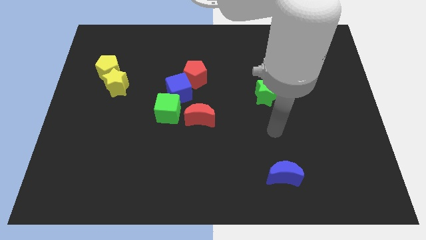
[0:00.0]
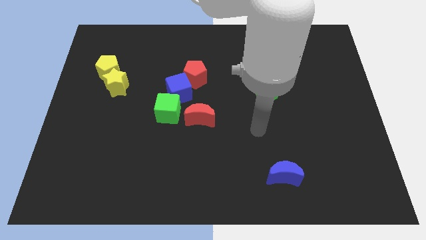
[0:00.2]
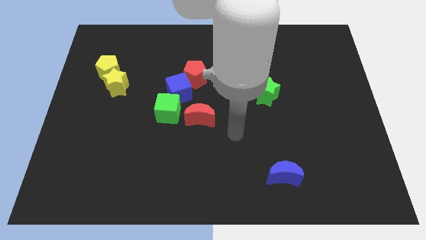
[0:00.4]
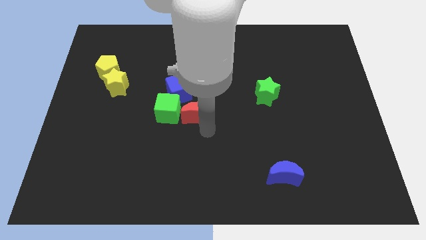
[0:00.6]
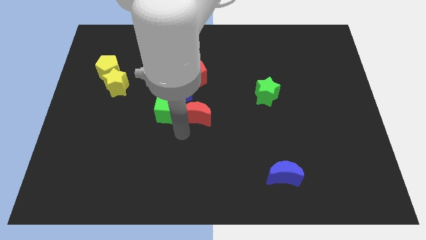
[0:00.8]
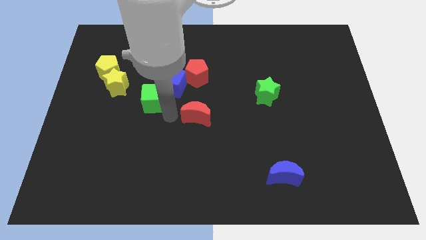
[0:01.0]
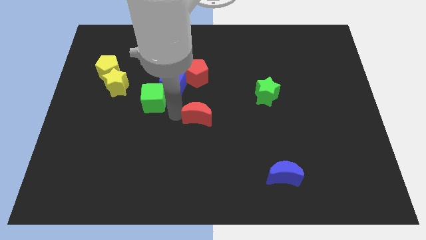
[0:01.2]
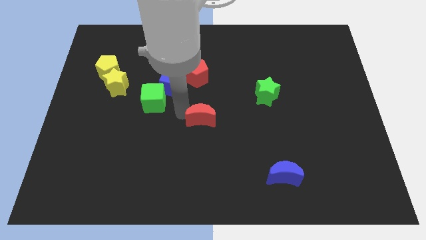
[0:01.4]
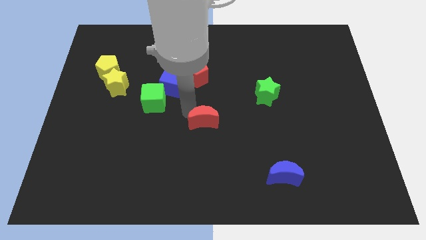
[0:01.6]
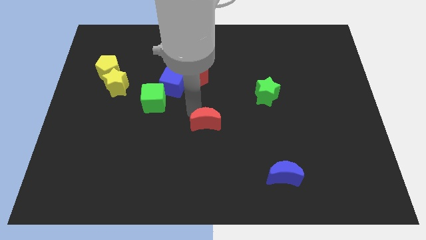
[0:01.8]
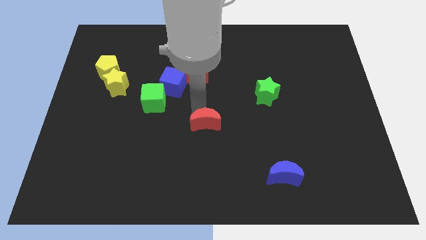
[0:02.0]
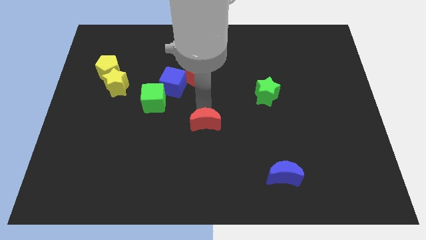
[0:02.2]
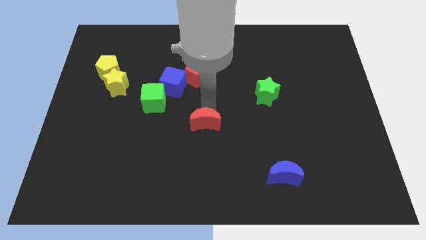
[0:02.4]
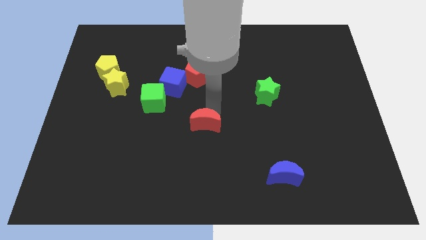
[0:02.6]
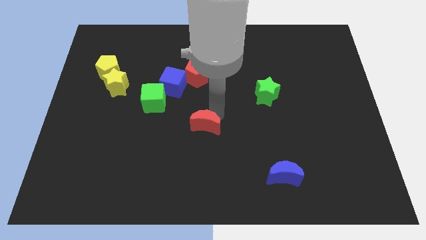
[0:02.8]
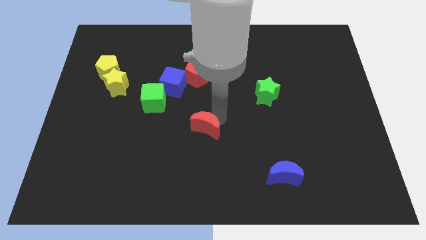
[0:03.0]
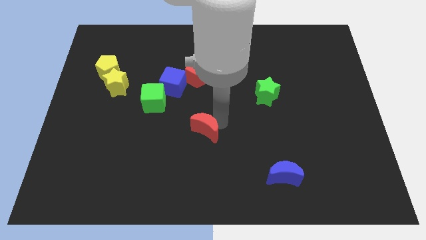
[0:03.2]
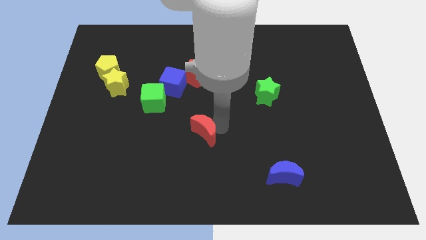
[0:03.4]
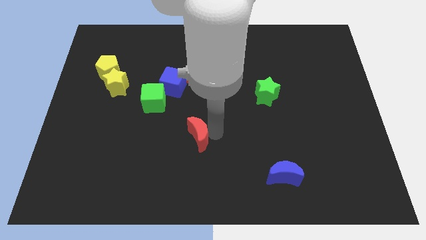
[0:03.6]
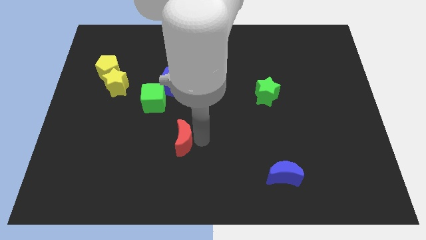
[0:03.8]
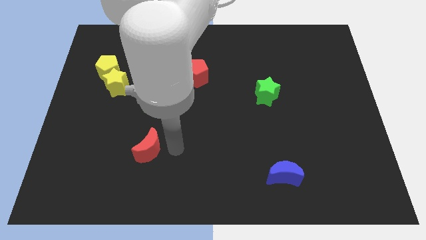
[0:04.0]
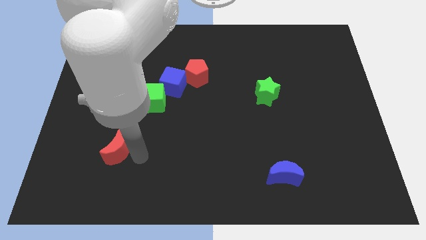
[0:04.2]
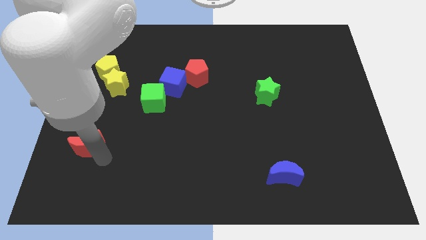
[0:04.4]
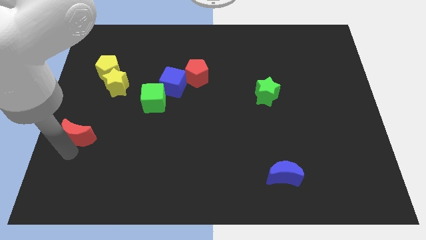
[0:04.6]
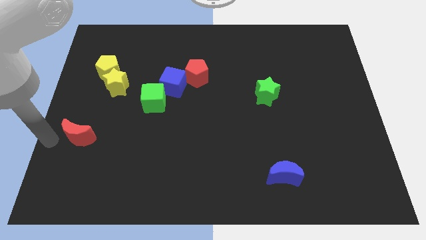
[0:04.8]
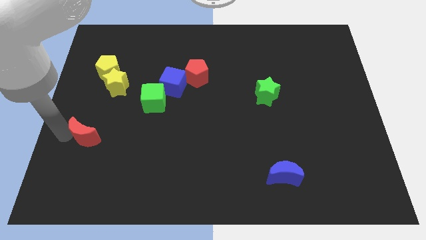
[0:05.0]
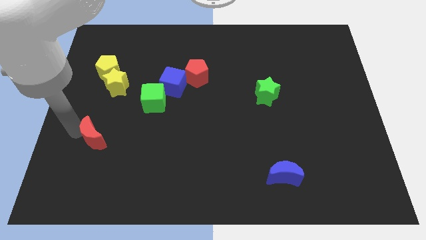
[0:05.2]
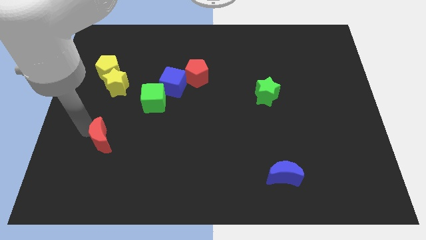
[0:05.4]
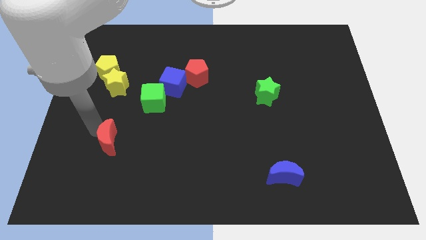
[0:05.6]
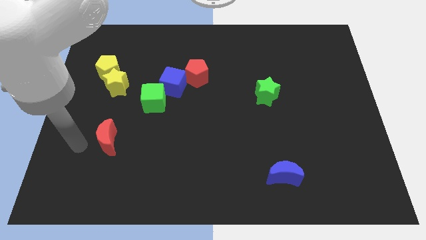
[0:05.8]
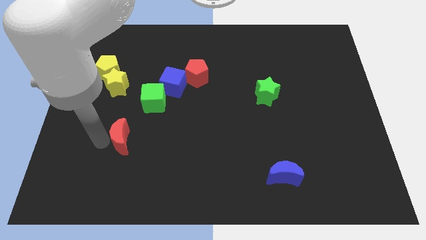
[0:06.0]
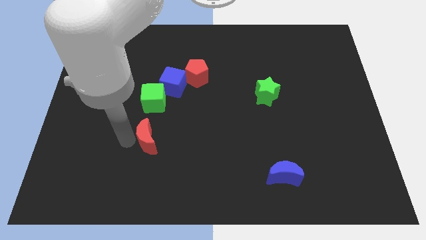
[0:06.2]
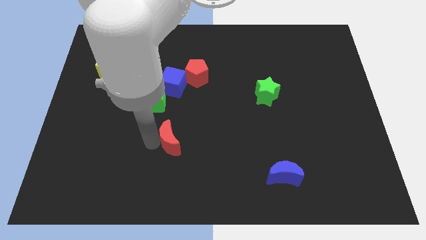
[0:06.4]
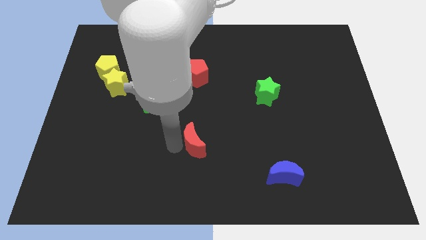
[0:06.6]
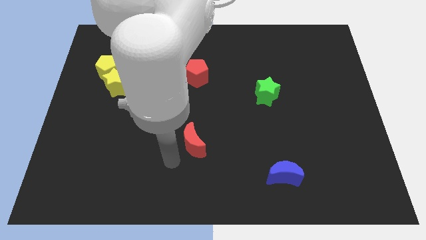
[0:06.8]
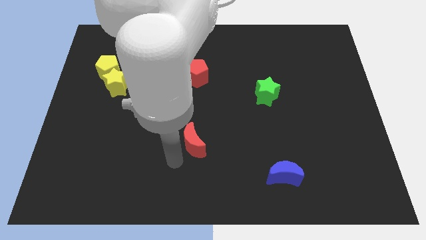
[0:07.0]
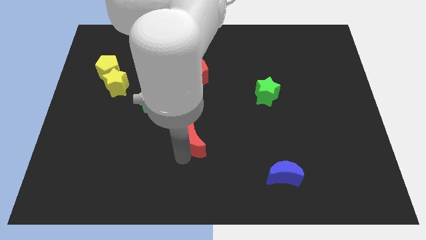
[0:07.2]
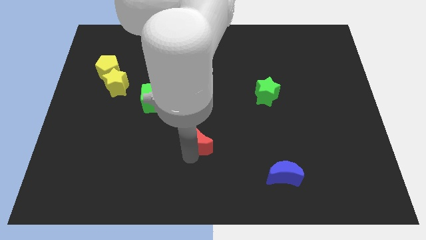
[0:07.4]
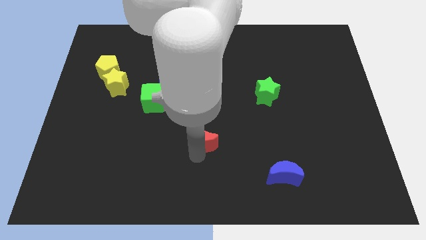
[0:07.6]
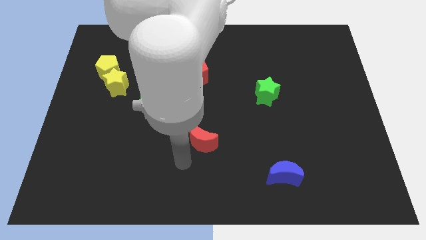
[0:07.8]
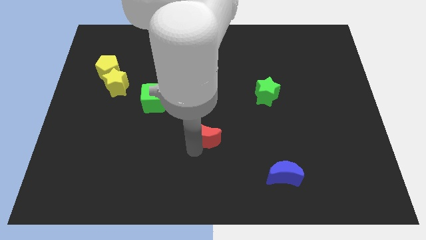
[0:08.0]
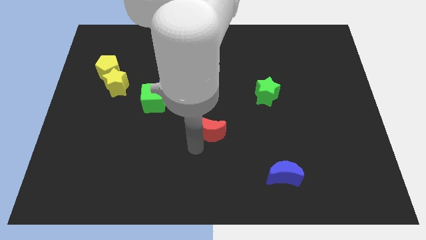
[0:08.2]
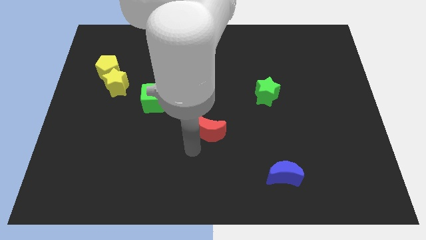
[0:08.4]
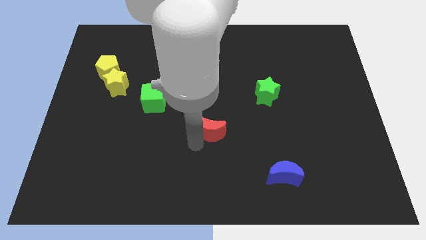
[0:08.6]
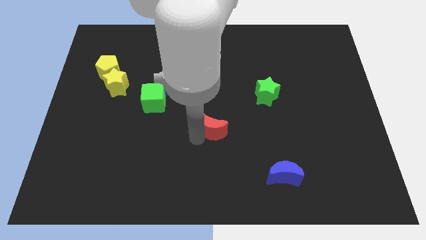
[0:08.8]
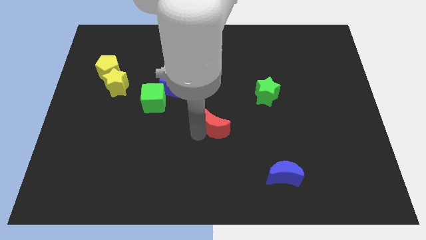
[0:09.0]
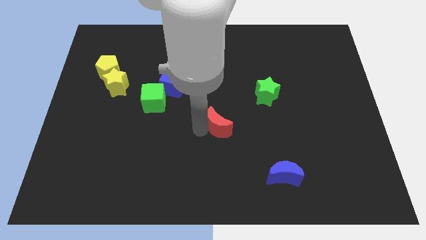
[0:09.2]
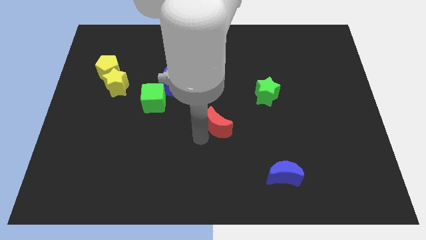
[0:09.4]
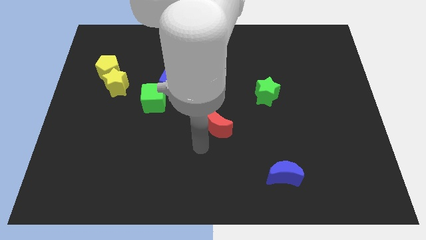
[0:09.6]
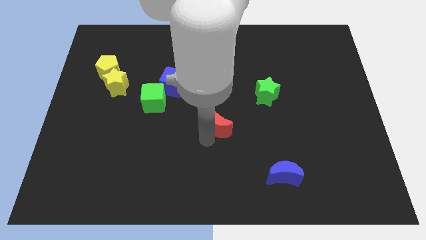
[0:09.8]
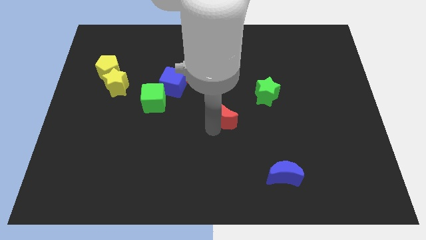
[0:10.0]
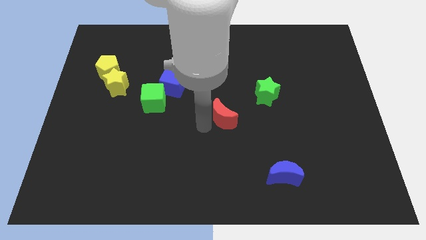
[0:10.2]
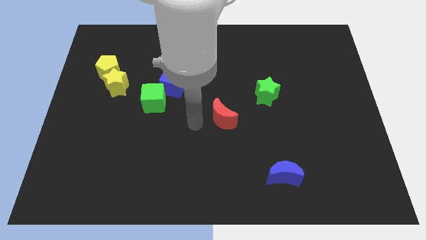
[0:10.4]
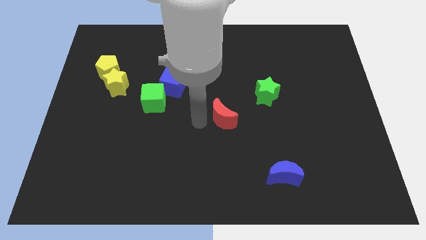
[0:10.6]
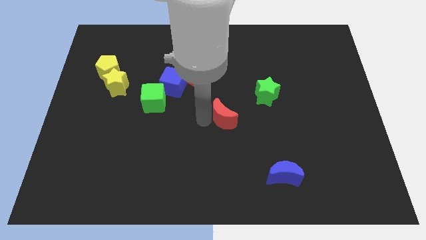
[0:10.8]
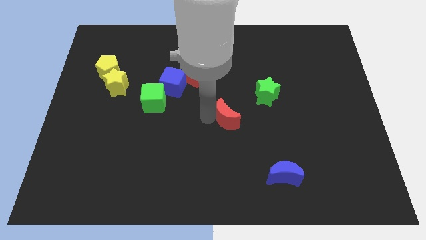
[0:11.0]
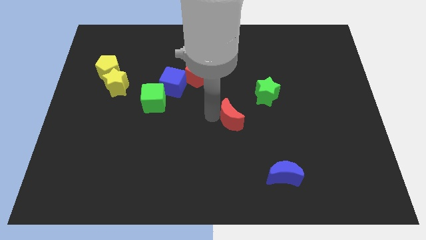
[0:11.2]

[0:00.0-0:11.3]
slightly slide the red moon to the right

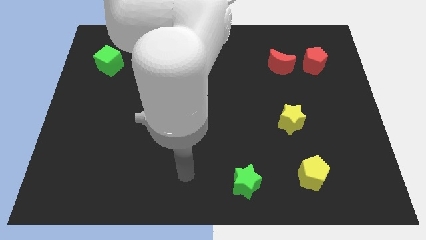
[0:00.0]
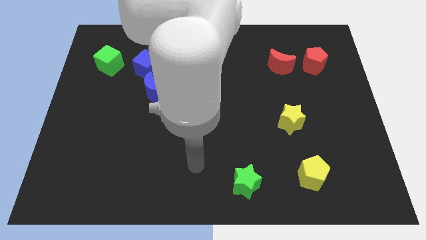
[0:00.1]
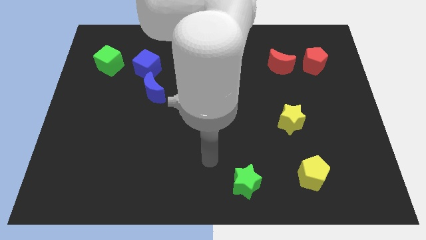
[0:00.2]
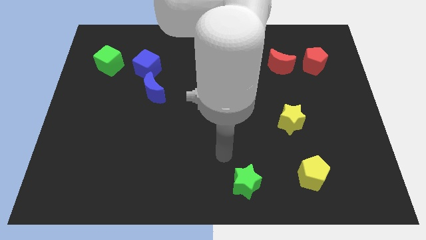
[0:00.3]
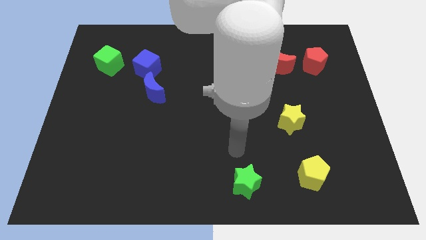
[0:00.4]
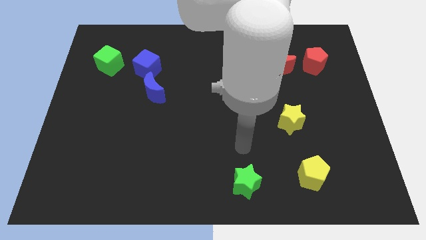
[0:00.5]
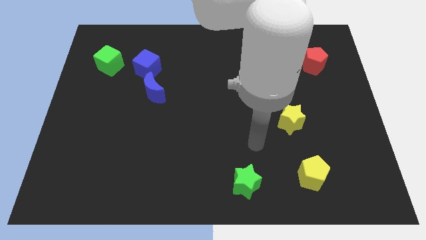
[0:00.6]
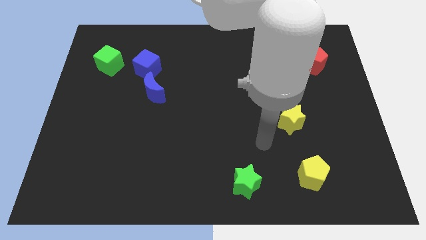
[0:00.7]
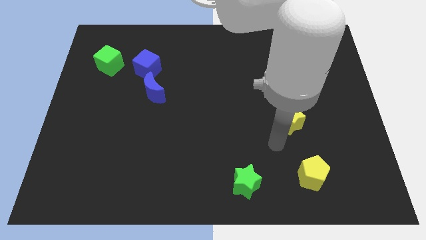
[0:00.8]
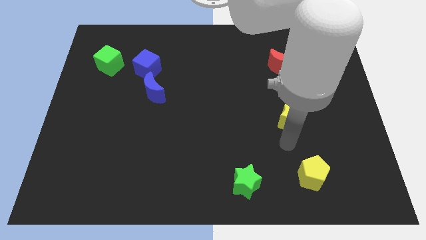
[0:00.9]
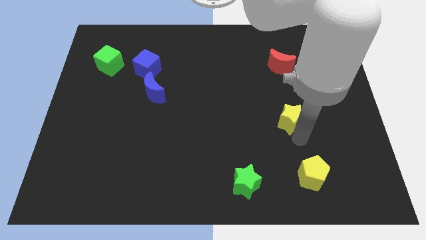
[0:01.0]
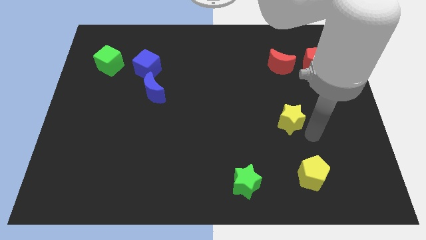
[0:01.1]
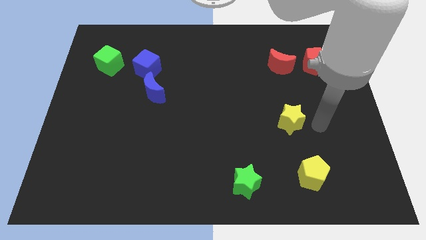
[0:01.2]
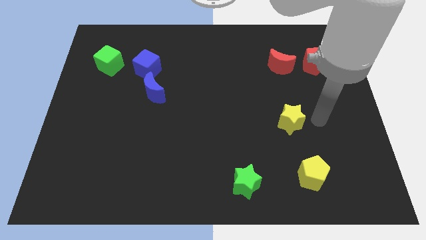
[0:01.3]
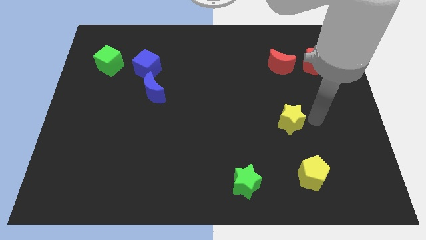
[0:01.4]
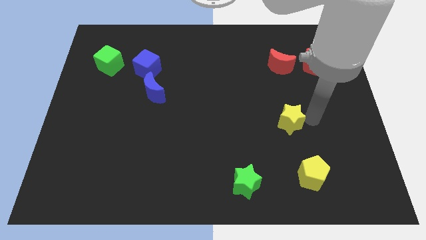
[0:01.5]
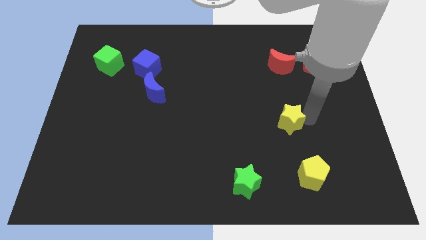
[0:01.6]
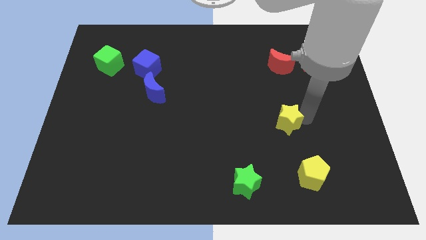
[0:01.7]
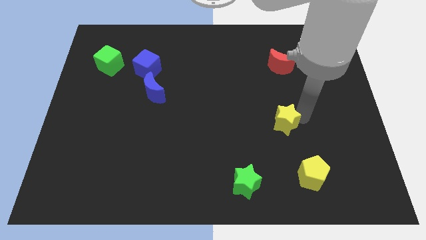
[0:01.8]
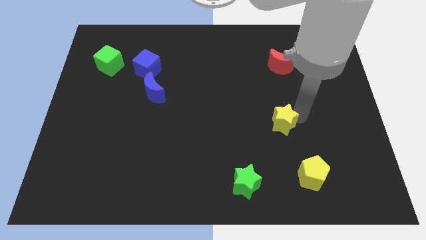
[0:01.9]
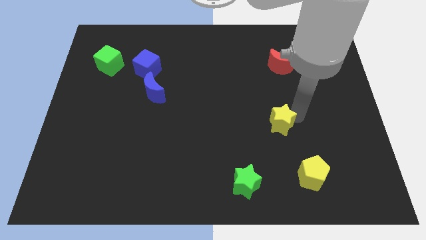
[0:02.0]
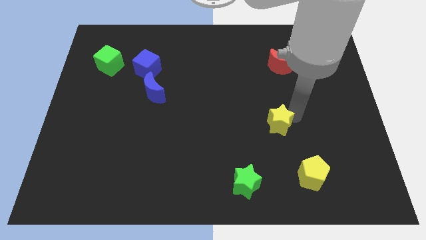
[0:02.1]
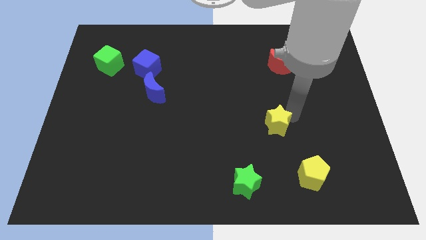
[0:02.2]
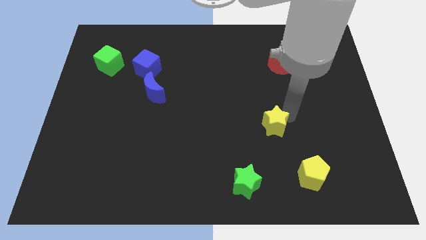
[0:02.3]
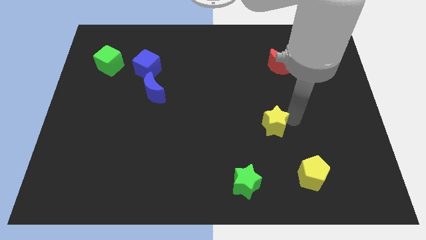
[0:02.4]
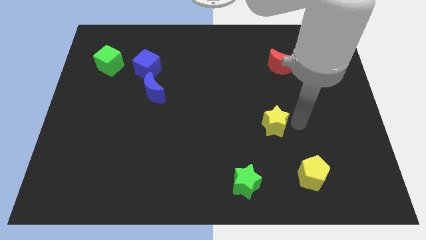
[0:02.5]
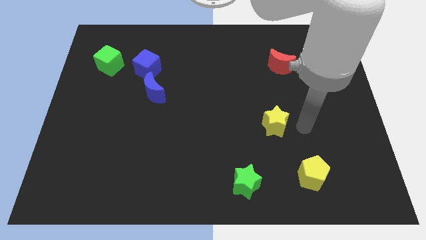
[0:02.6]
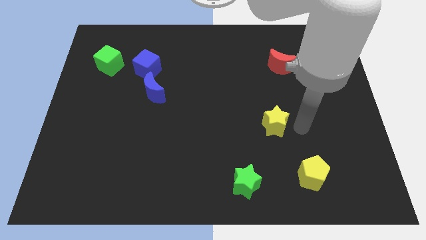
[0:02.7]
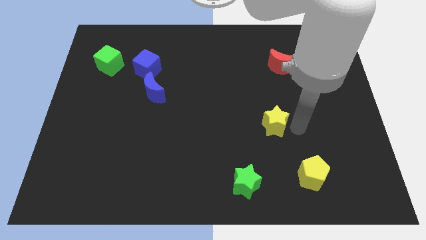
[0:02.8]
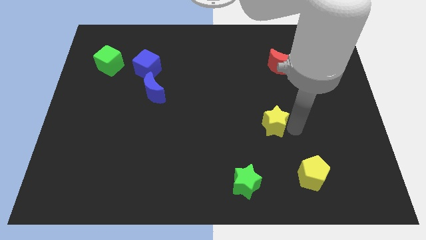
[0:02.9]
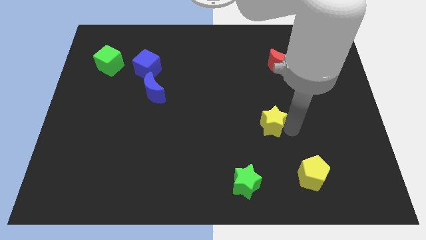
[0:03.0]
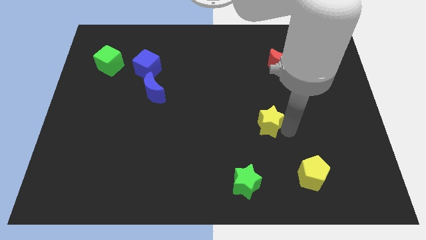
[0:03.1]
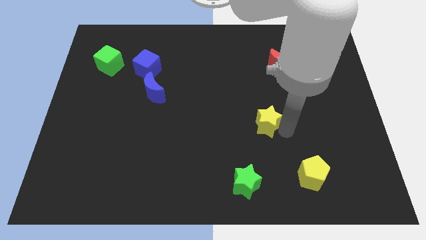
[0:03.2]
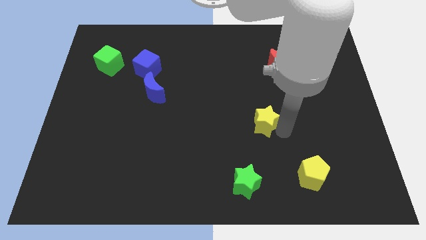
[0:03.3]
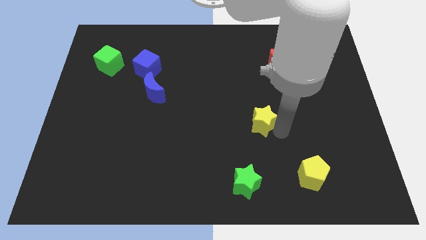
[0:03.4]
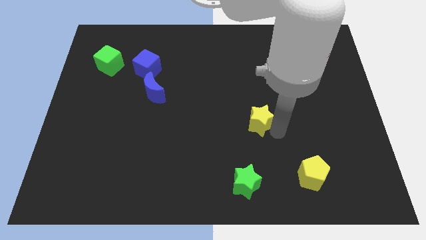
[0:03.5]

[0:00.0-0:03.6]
slide the yellow star to the left slightly
